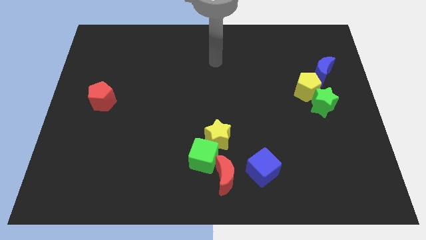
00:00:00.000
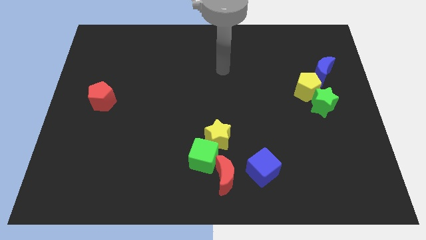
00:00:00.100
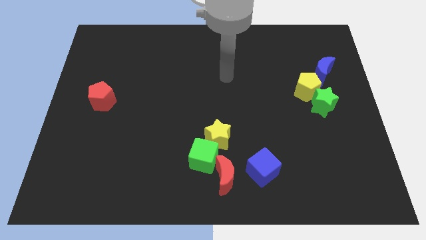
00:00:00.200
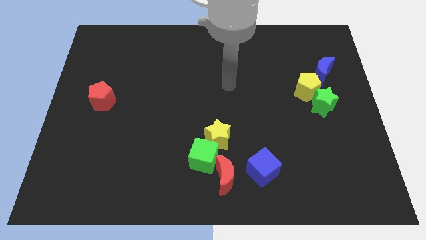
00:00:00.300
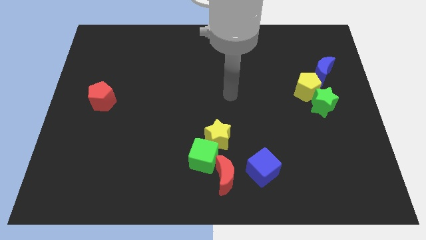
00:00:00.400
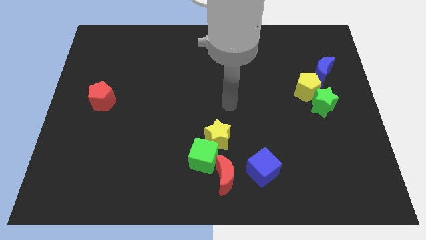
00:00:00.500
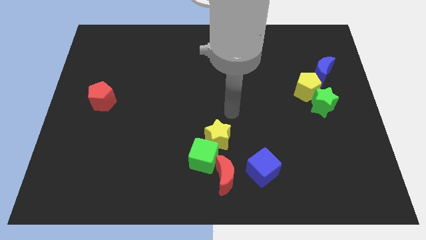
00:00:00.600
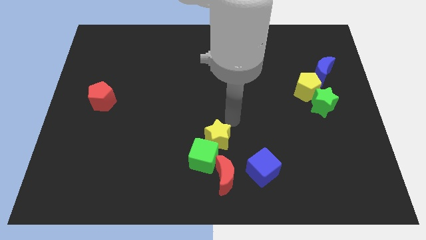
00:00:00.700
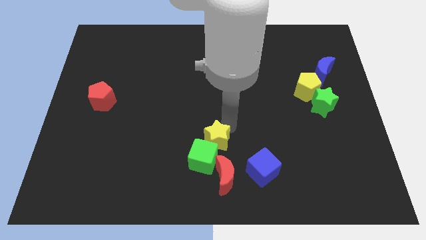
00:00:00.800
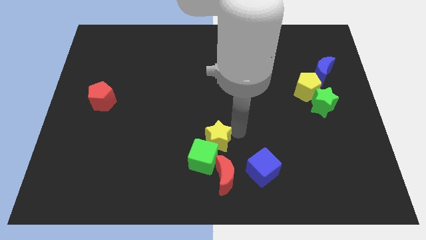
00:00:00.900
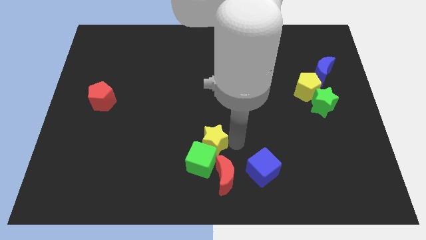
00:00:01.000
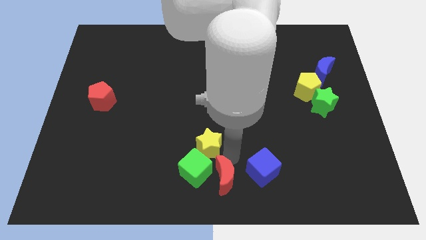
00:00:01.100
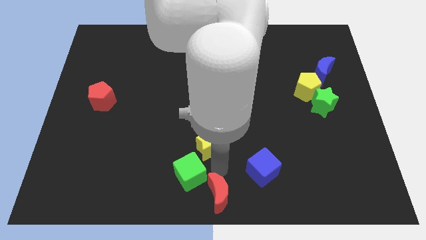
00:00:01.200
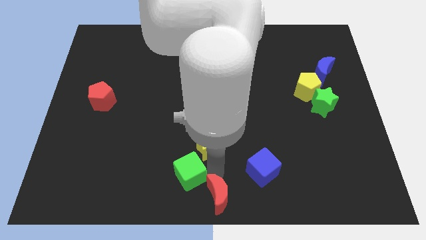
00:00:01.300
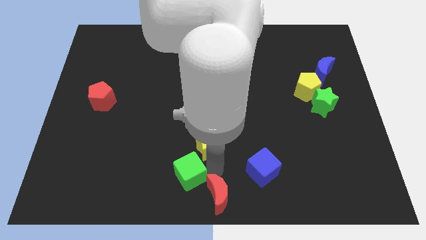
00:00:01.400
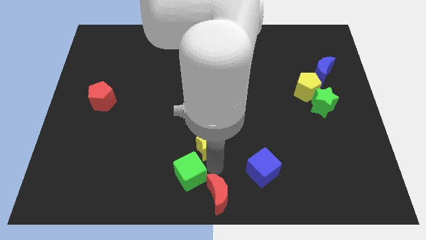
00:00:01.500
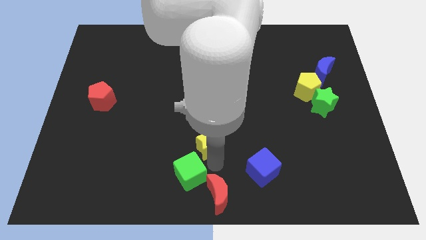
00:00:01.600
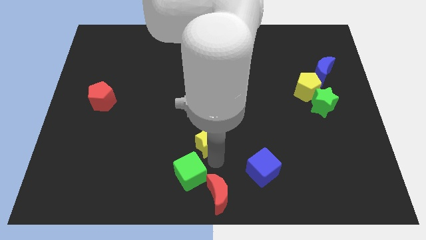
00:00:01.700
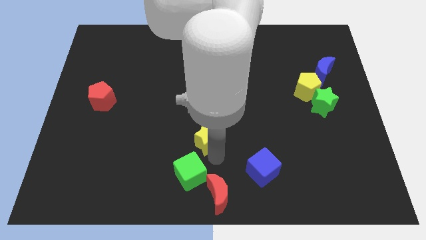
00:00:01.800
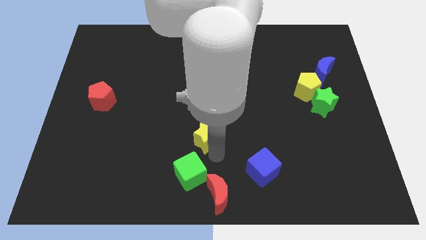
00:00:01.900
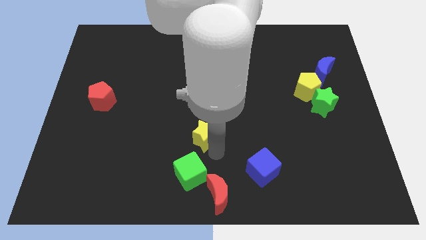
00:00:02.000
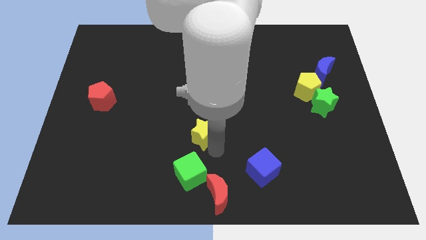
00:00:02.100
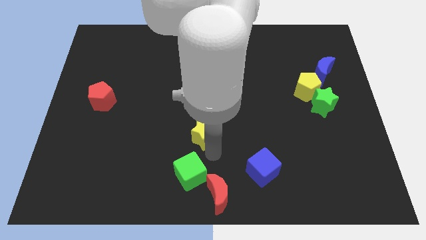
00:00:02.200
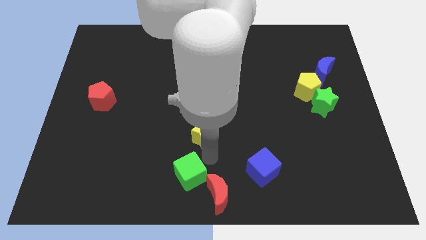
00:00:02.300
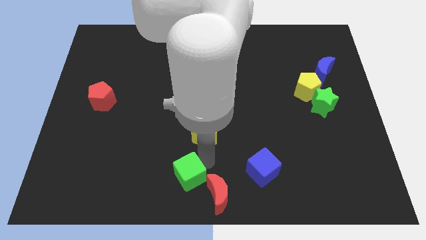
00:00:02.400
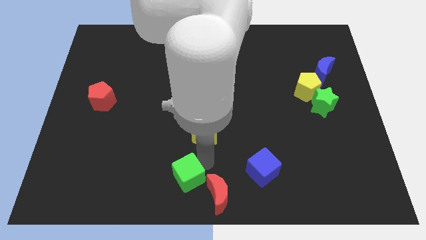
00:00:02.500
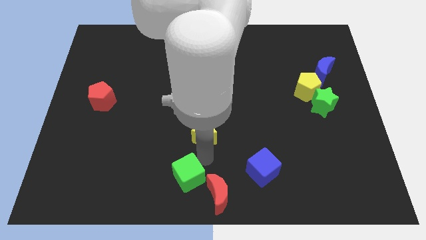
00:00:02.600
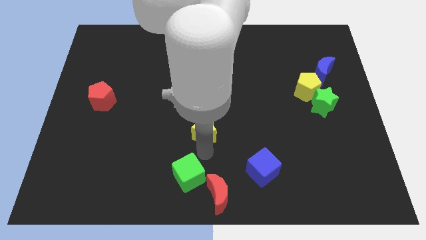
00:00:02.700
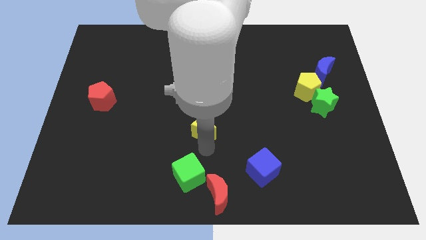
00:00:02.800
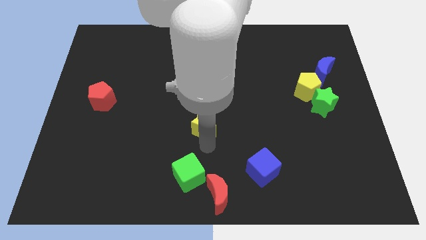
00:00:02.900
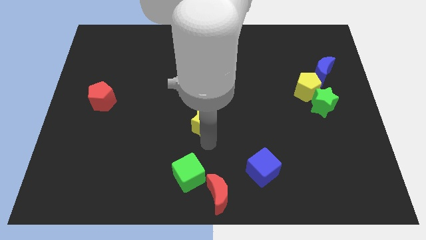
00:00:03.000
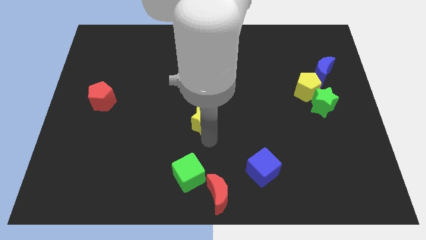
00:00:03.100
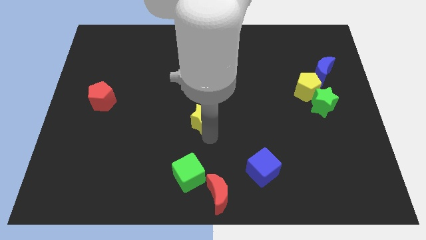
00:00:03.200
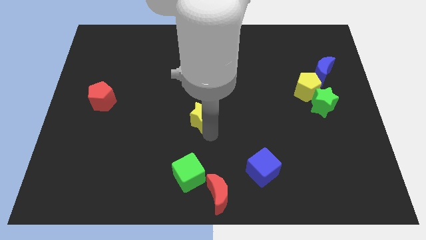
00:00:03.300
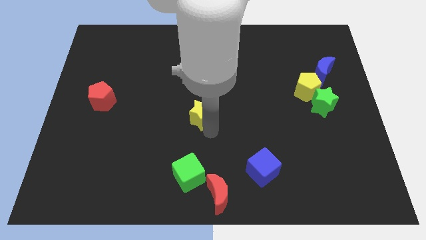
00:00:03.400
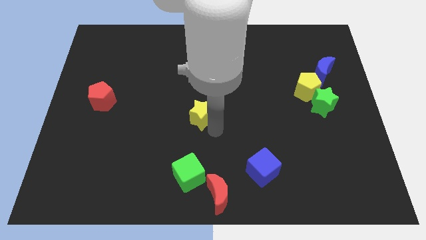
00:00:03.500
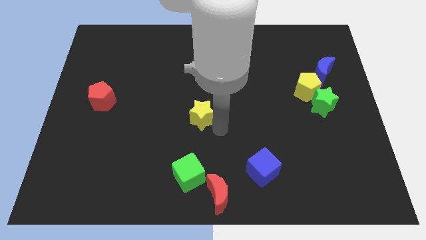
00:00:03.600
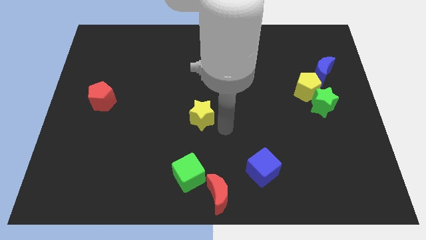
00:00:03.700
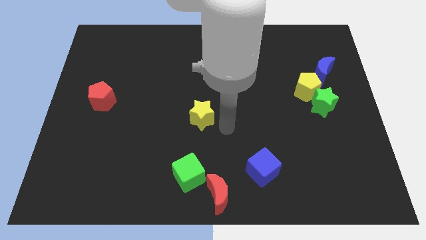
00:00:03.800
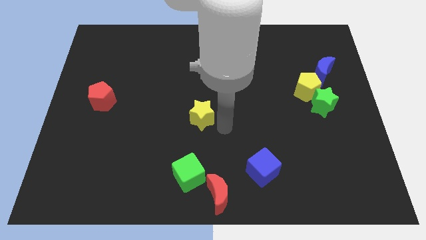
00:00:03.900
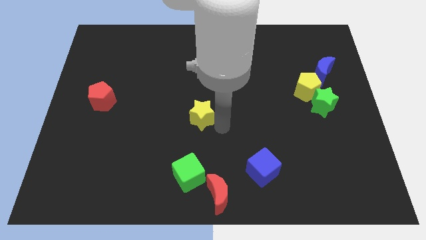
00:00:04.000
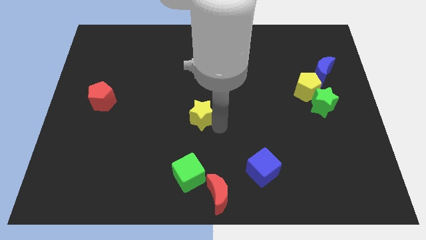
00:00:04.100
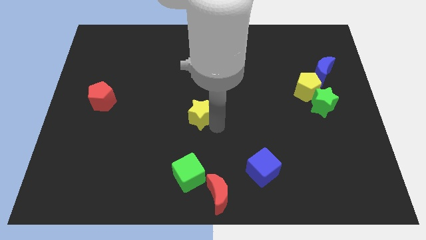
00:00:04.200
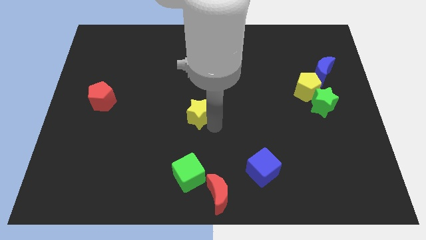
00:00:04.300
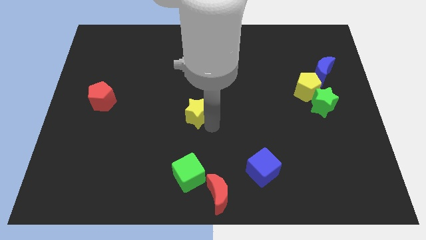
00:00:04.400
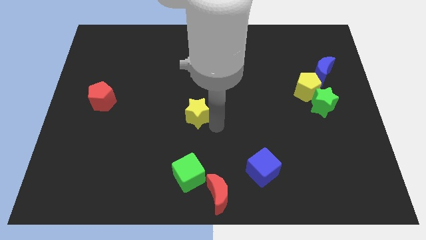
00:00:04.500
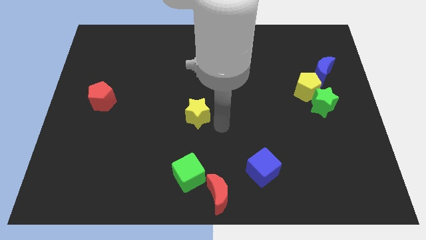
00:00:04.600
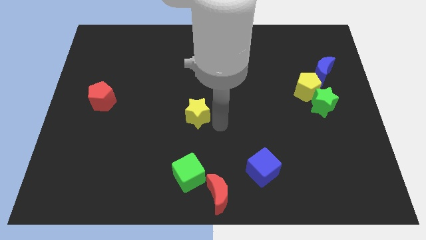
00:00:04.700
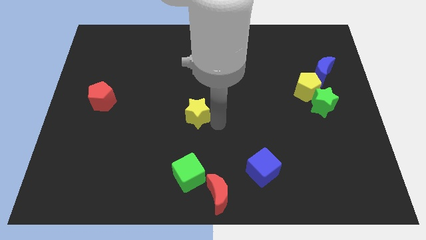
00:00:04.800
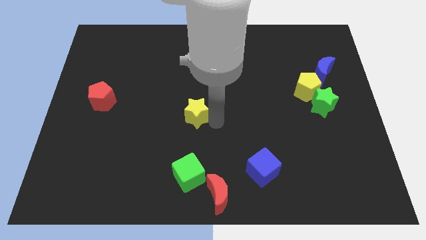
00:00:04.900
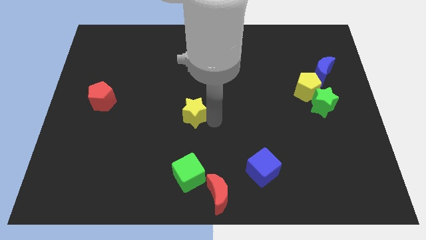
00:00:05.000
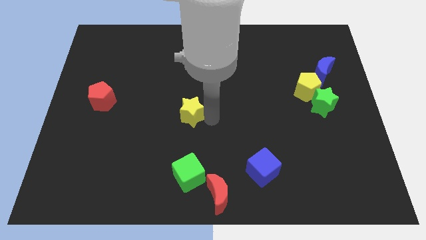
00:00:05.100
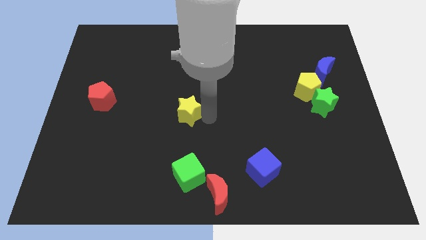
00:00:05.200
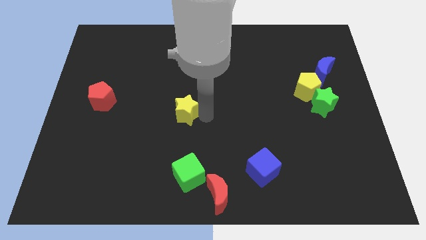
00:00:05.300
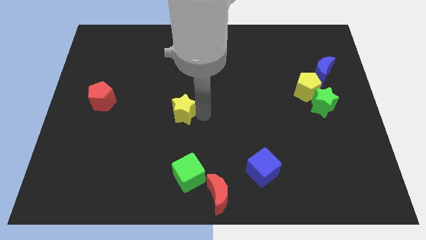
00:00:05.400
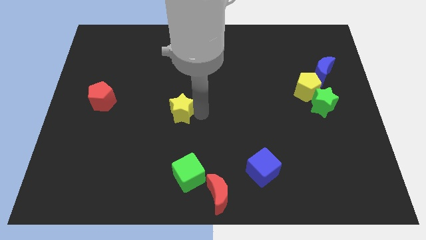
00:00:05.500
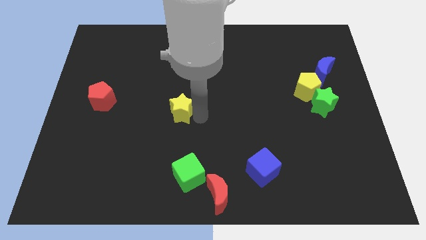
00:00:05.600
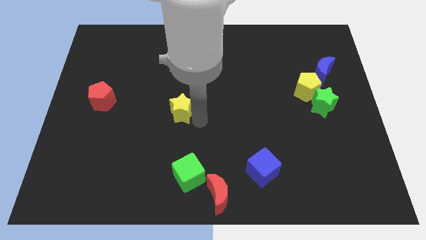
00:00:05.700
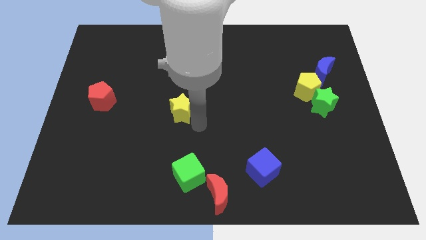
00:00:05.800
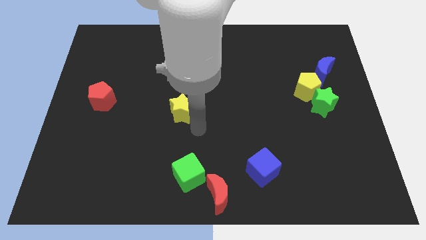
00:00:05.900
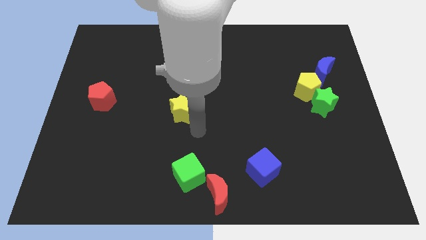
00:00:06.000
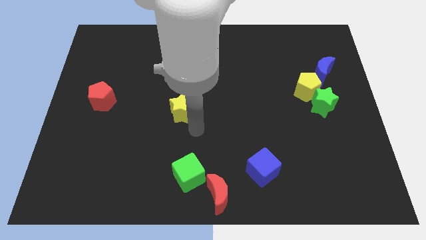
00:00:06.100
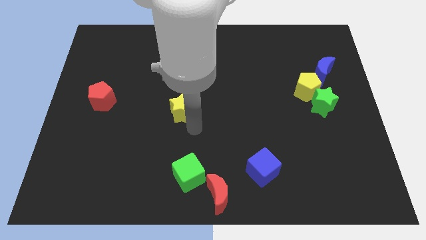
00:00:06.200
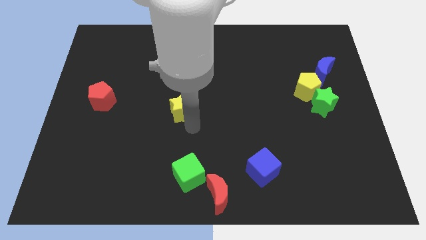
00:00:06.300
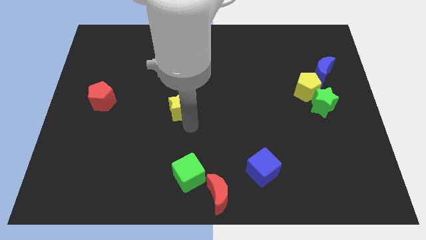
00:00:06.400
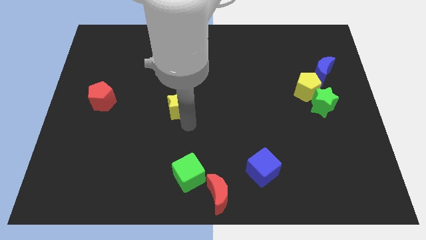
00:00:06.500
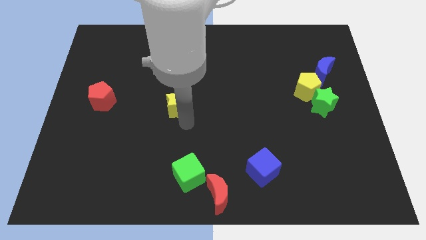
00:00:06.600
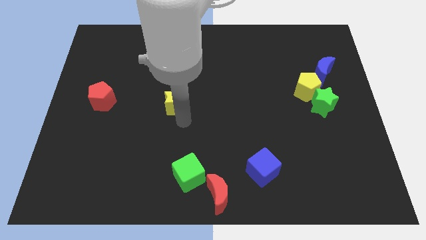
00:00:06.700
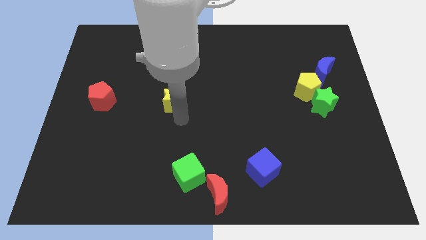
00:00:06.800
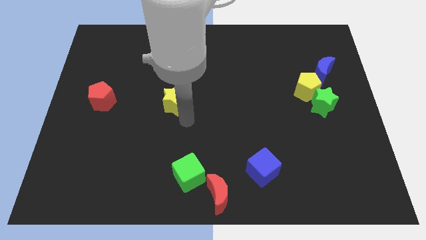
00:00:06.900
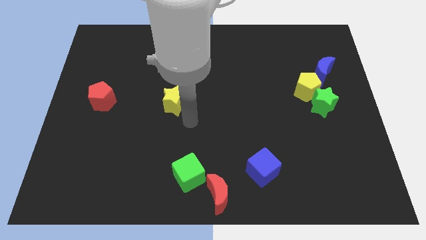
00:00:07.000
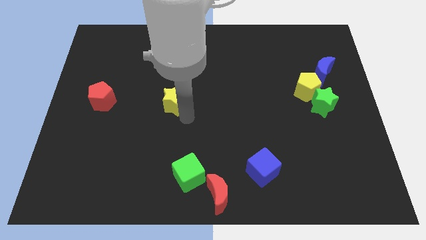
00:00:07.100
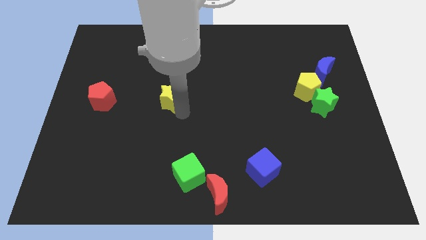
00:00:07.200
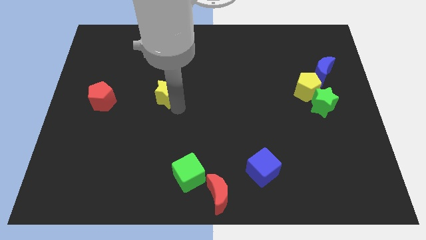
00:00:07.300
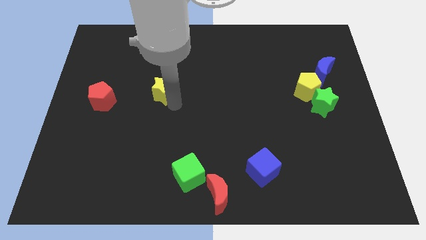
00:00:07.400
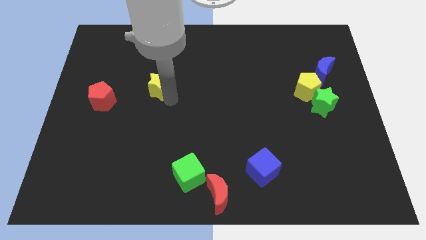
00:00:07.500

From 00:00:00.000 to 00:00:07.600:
push the yellow star diagonally upwards and left

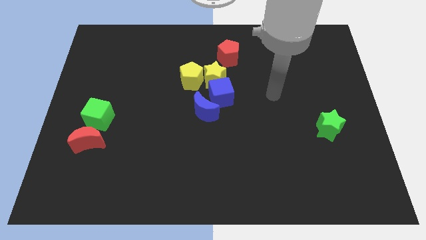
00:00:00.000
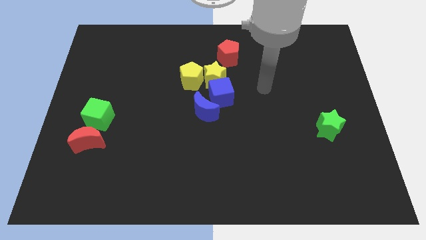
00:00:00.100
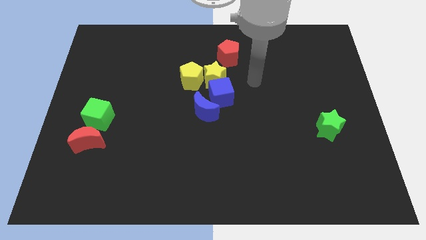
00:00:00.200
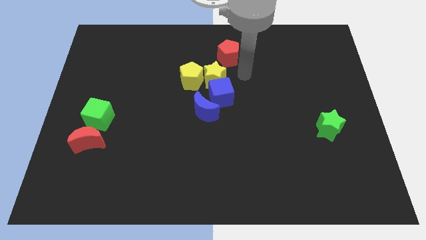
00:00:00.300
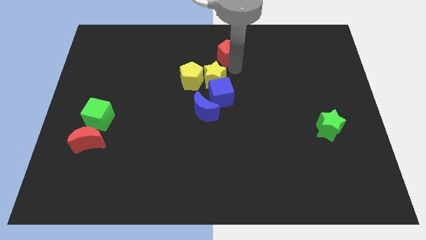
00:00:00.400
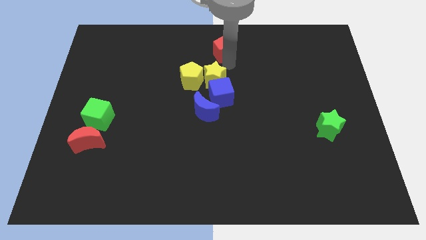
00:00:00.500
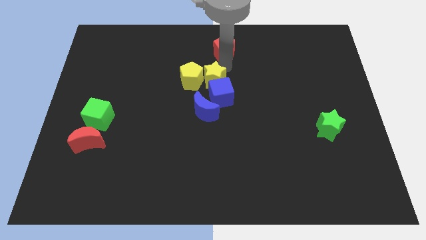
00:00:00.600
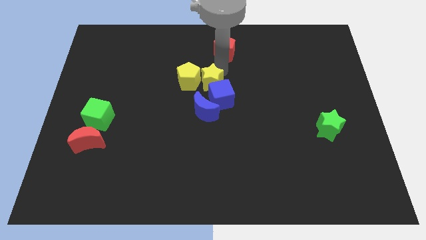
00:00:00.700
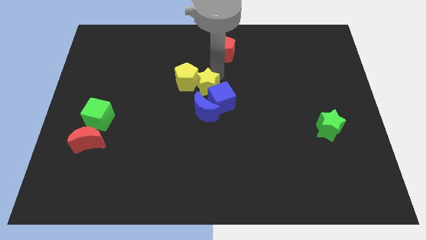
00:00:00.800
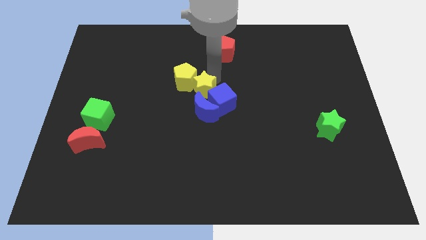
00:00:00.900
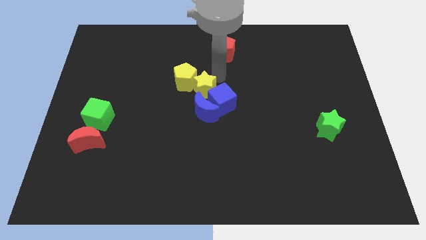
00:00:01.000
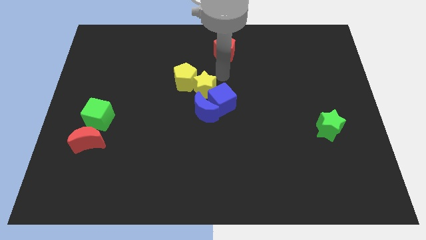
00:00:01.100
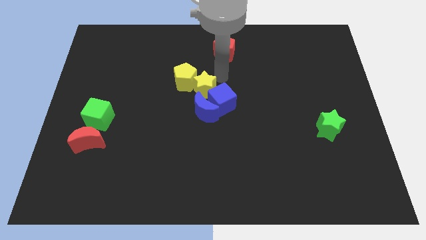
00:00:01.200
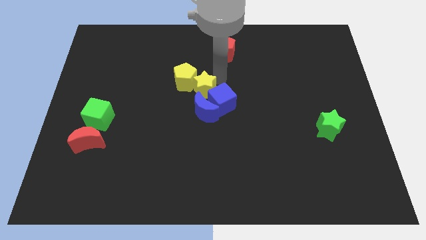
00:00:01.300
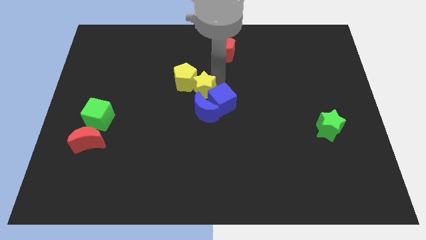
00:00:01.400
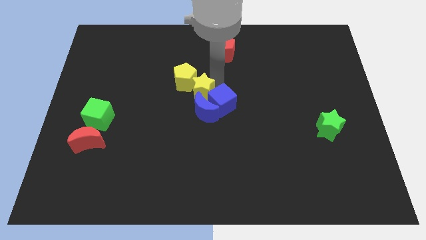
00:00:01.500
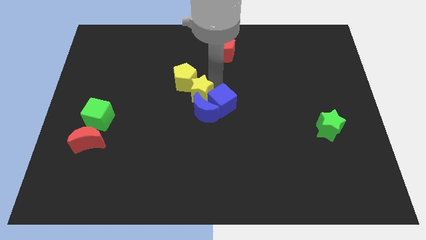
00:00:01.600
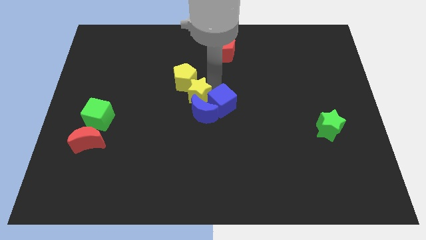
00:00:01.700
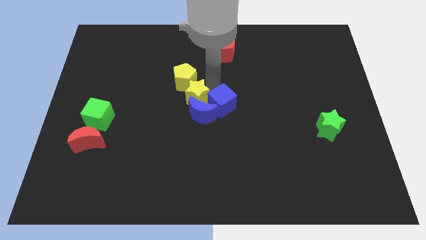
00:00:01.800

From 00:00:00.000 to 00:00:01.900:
push the yellow star a little downwards and to the left
